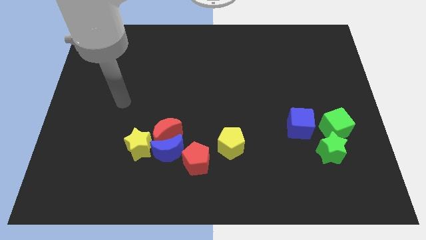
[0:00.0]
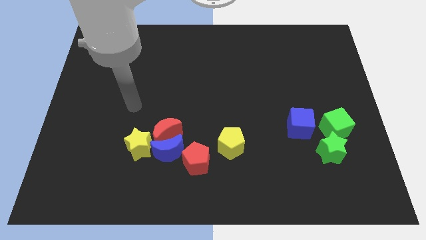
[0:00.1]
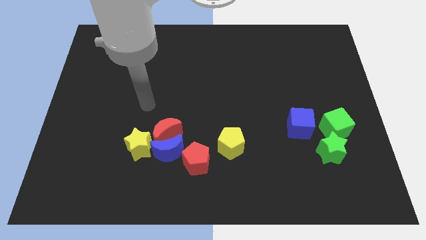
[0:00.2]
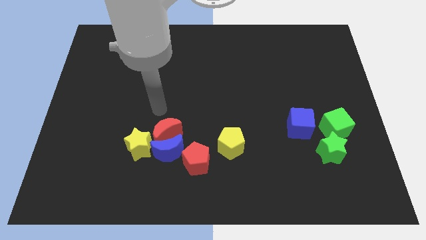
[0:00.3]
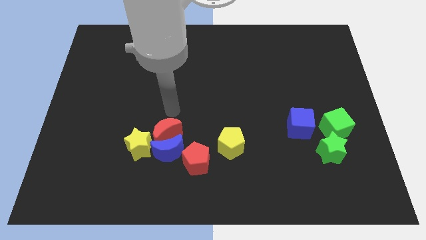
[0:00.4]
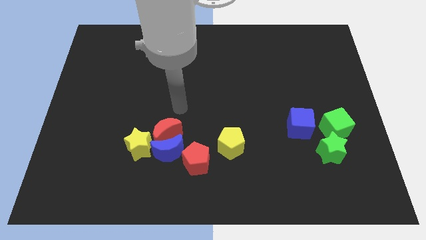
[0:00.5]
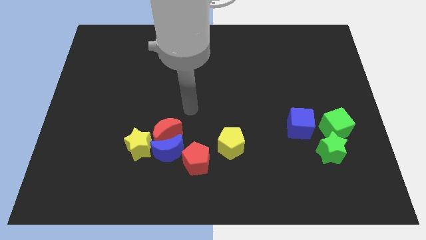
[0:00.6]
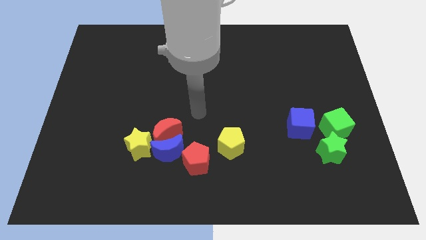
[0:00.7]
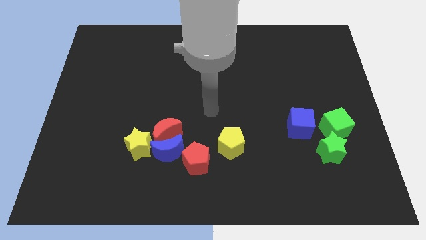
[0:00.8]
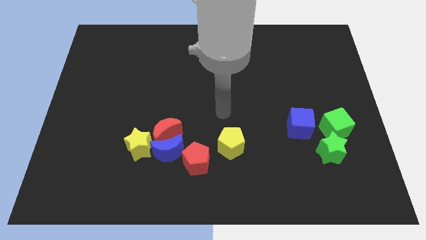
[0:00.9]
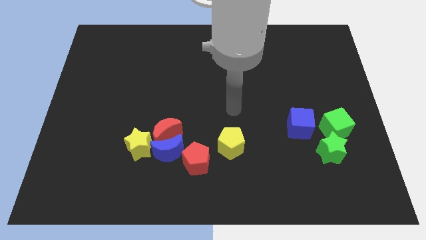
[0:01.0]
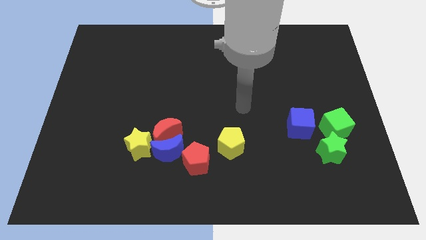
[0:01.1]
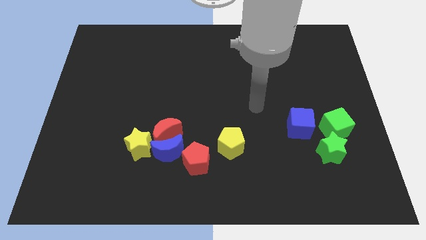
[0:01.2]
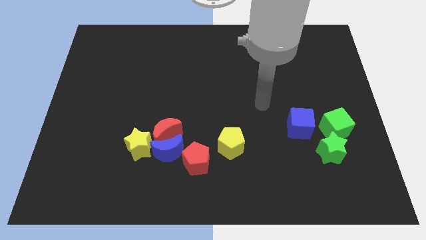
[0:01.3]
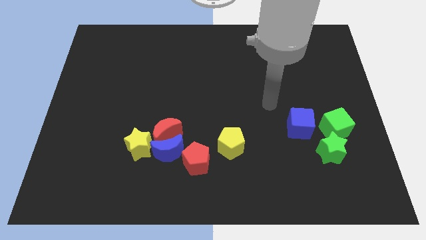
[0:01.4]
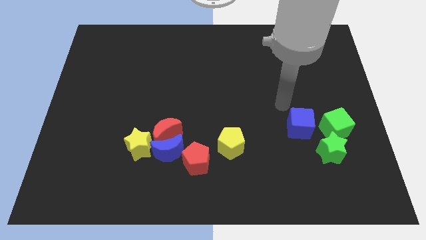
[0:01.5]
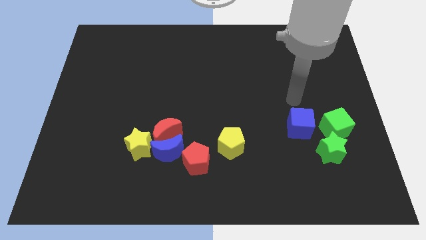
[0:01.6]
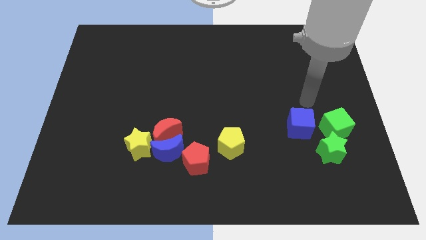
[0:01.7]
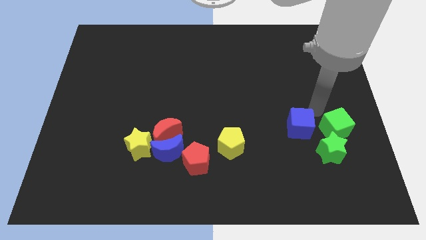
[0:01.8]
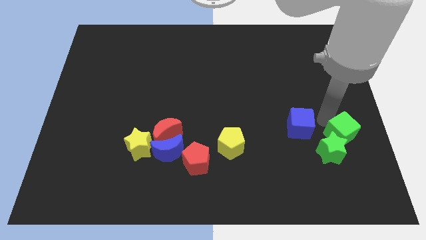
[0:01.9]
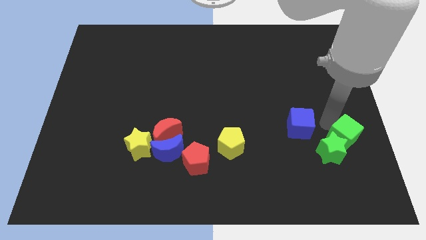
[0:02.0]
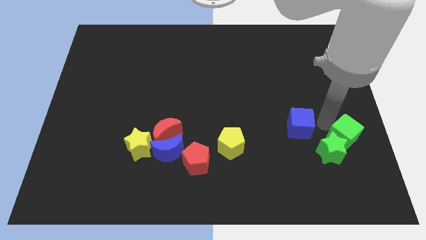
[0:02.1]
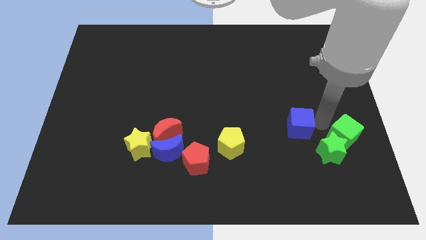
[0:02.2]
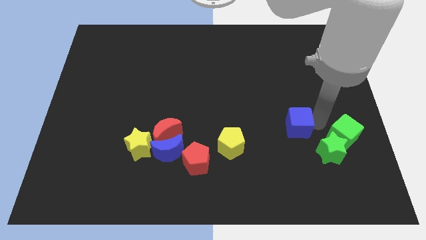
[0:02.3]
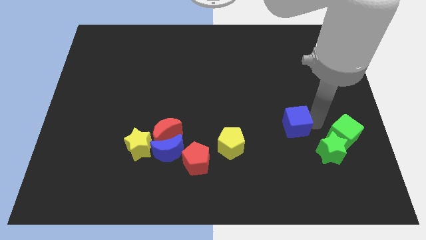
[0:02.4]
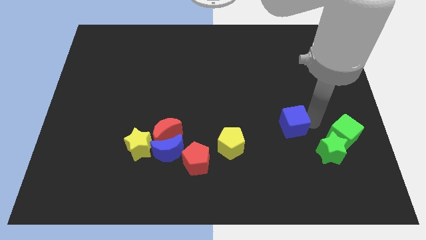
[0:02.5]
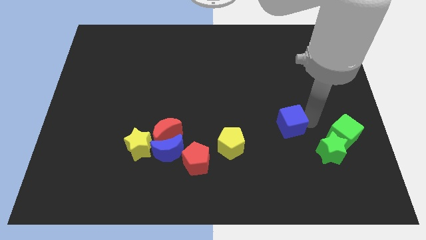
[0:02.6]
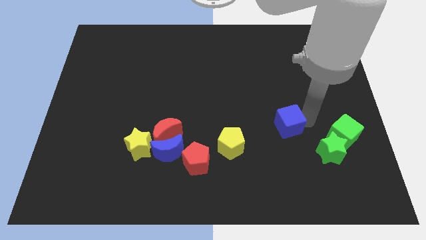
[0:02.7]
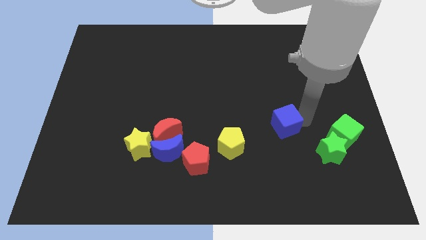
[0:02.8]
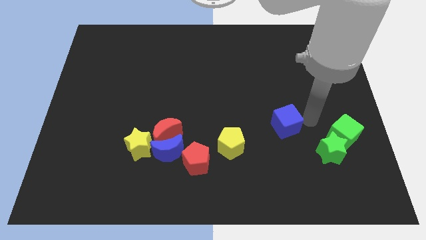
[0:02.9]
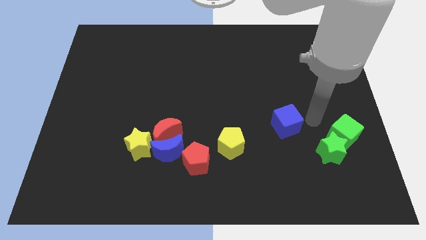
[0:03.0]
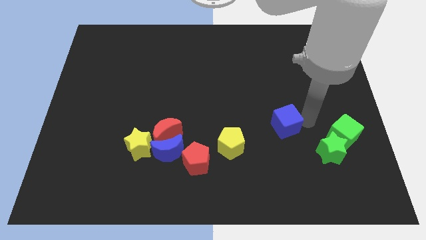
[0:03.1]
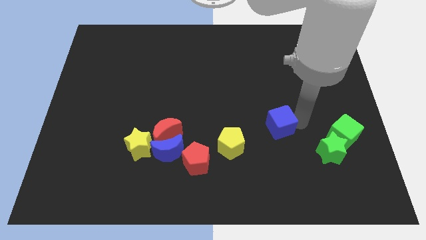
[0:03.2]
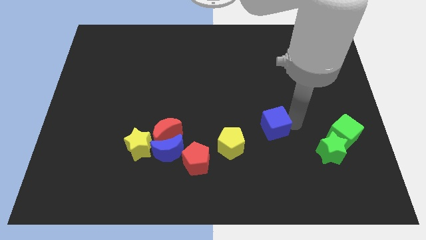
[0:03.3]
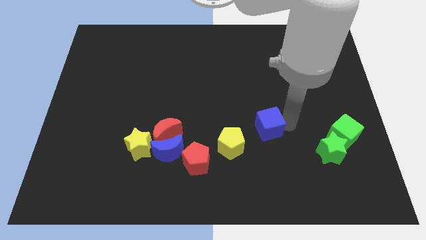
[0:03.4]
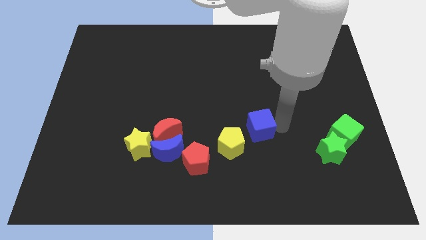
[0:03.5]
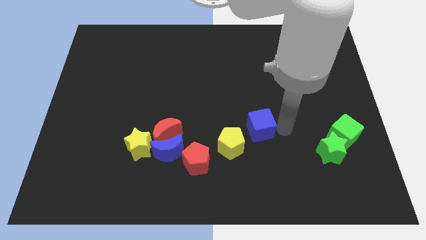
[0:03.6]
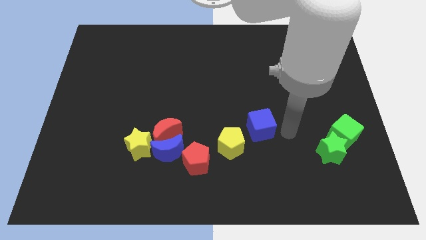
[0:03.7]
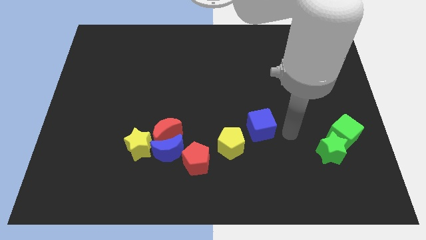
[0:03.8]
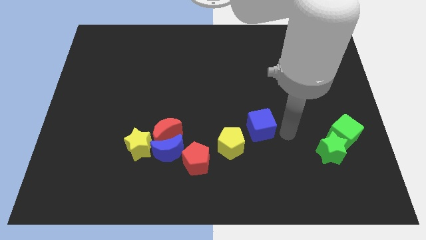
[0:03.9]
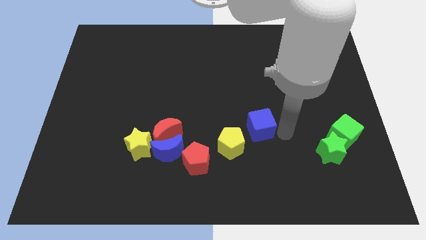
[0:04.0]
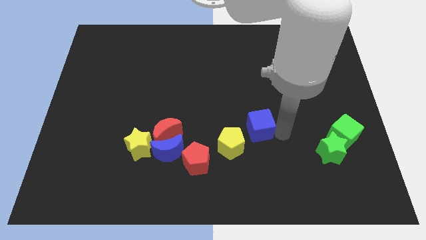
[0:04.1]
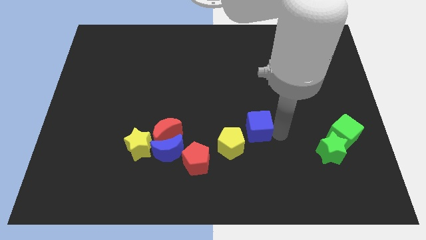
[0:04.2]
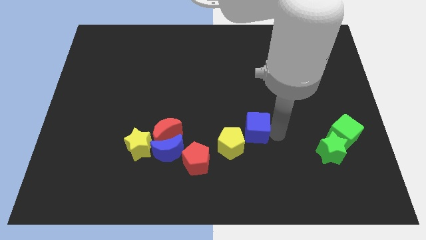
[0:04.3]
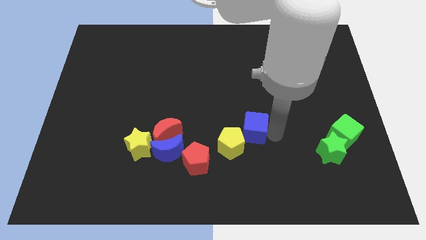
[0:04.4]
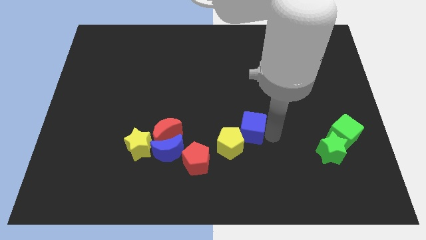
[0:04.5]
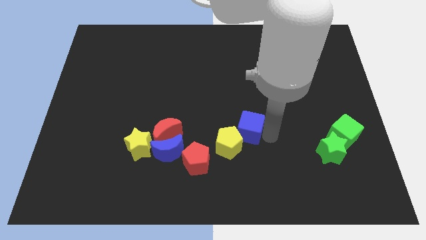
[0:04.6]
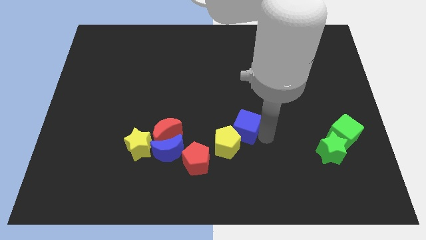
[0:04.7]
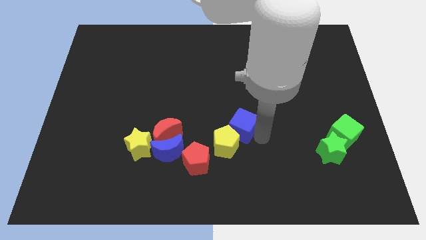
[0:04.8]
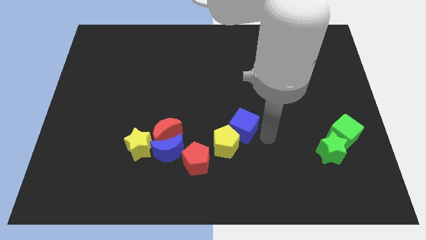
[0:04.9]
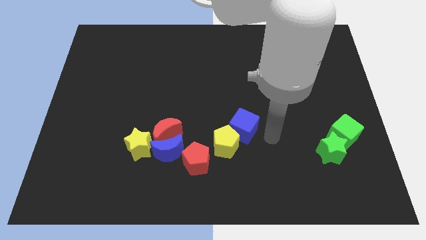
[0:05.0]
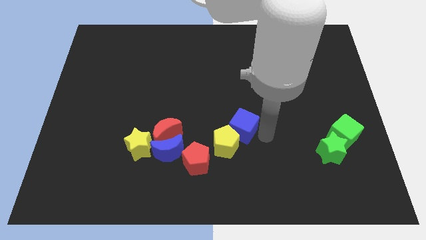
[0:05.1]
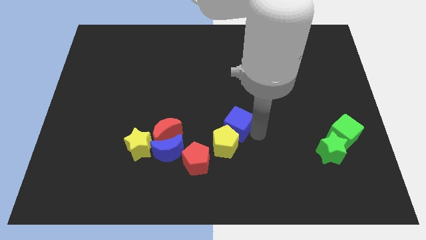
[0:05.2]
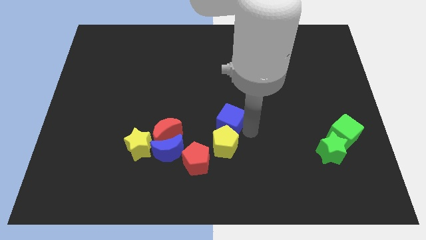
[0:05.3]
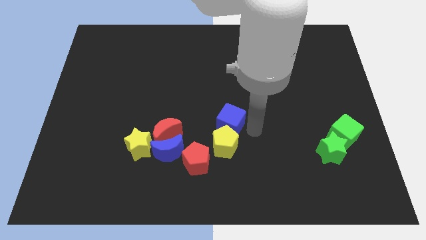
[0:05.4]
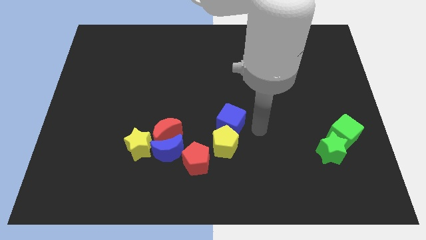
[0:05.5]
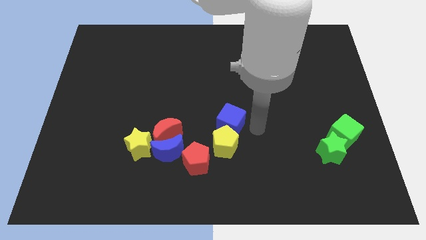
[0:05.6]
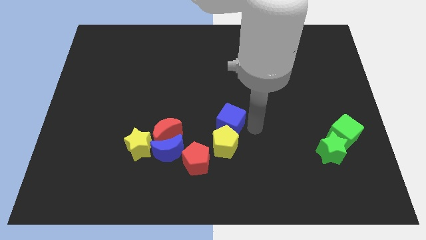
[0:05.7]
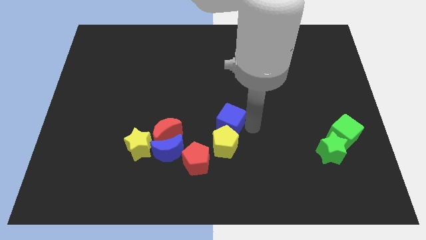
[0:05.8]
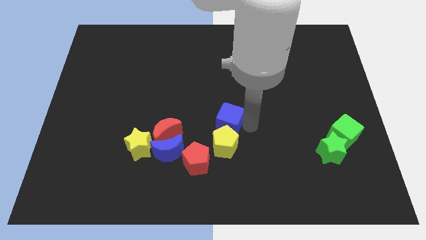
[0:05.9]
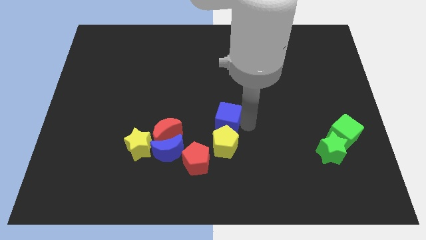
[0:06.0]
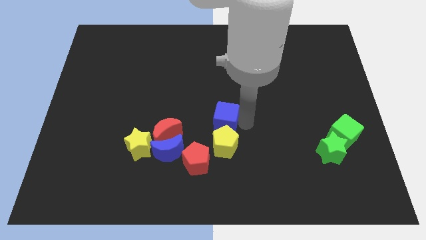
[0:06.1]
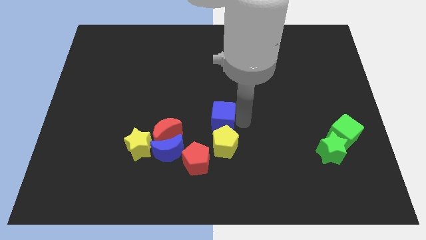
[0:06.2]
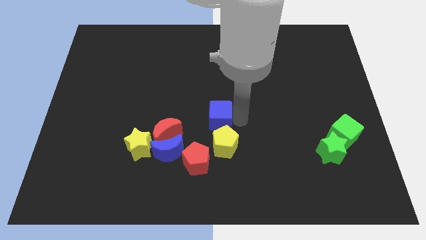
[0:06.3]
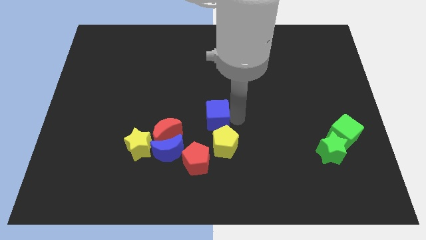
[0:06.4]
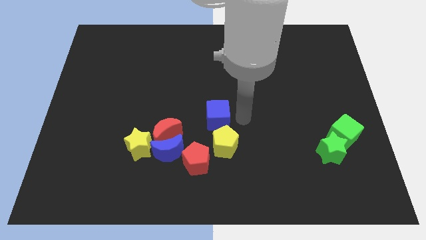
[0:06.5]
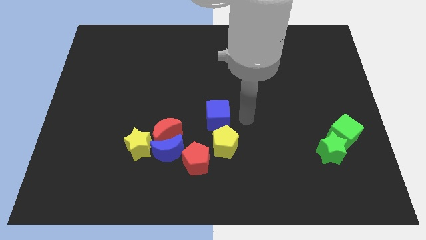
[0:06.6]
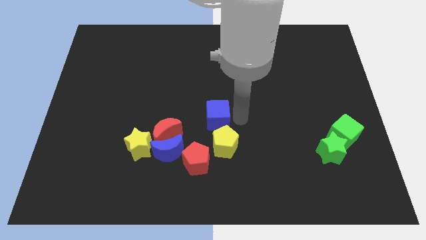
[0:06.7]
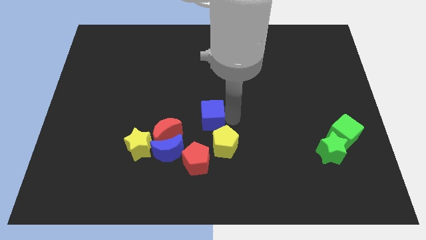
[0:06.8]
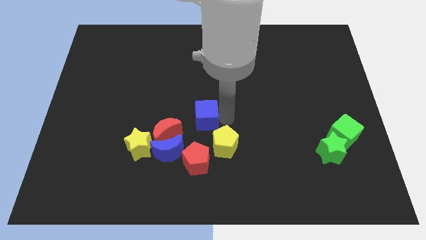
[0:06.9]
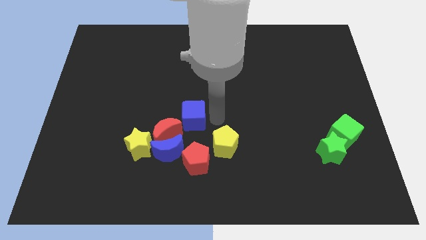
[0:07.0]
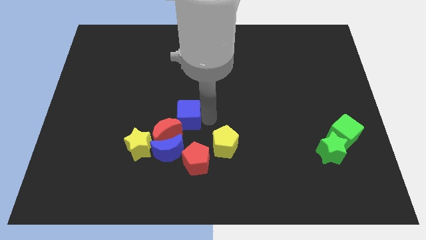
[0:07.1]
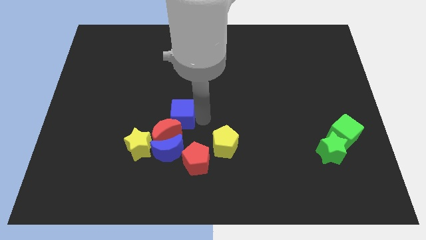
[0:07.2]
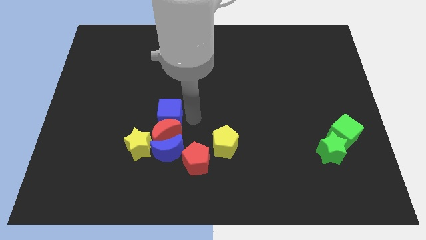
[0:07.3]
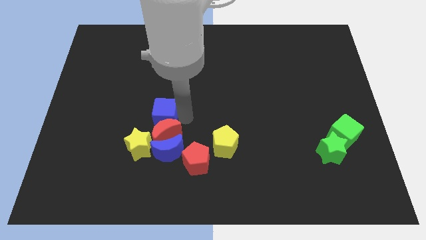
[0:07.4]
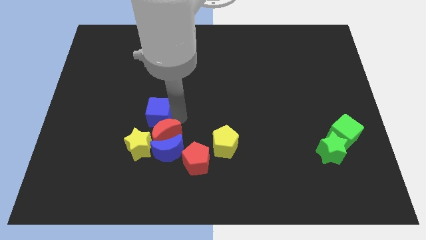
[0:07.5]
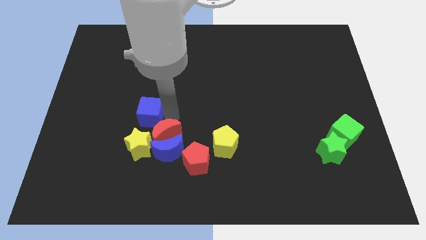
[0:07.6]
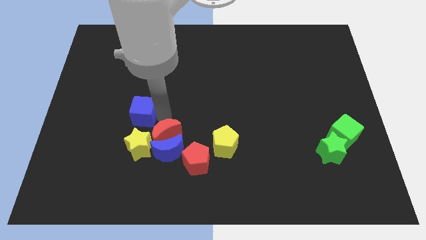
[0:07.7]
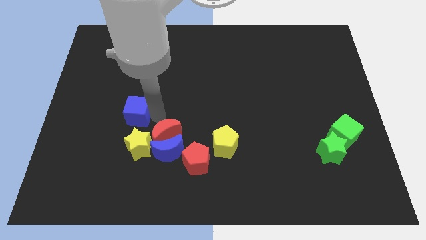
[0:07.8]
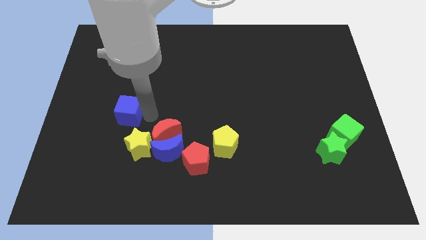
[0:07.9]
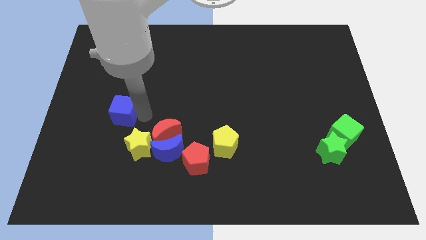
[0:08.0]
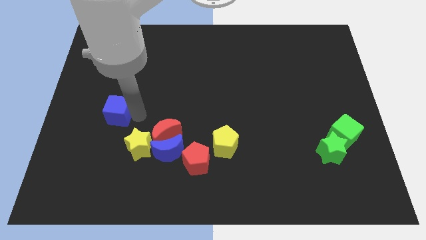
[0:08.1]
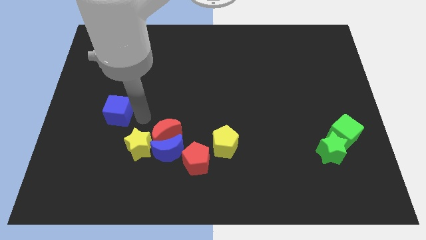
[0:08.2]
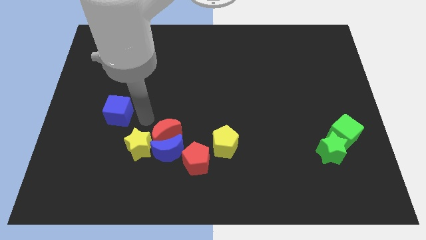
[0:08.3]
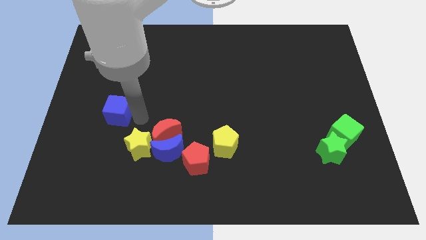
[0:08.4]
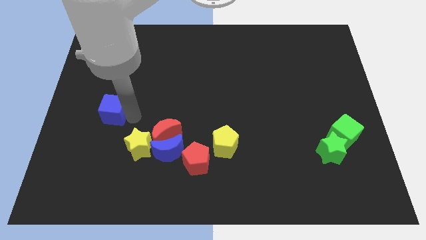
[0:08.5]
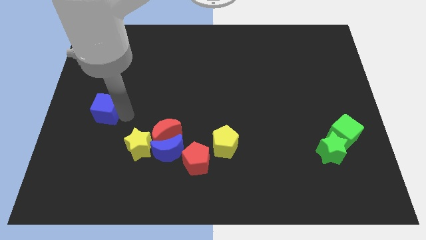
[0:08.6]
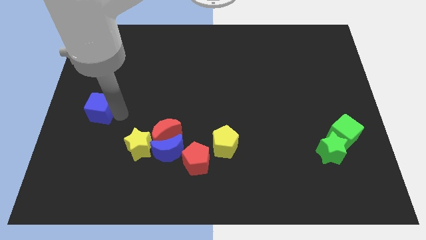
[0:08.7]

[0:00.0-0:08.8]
move the blue cube to the center left
